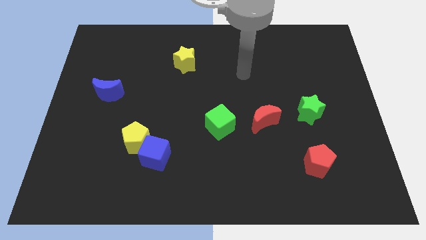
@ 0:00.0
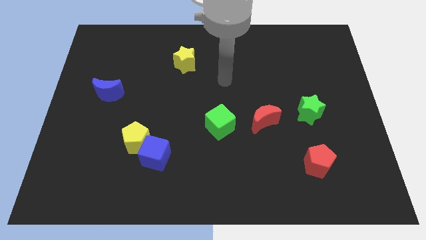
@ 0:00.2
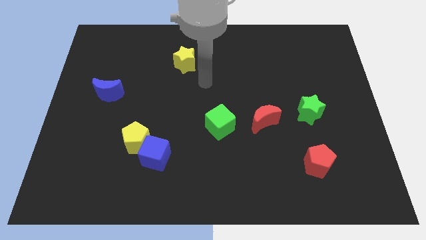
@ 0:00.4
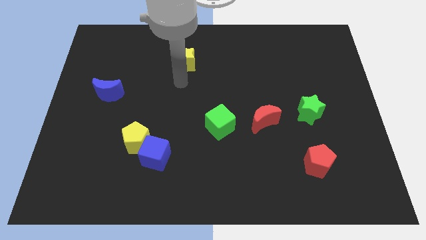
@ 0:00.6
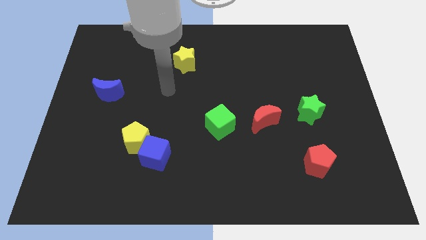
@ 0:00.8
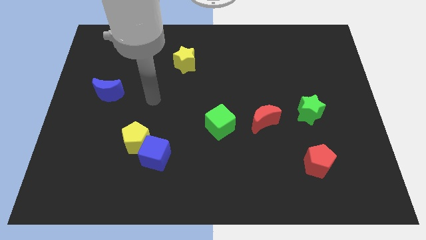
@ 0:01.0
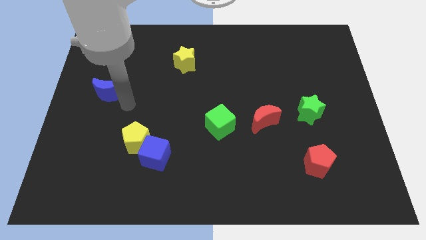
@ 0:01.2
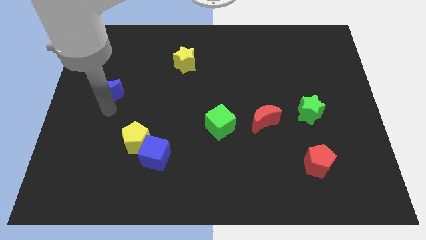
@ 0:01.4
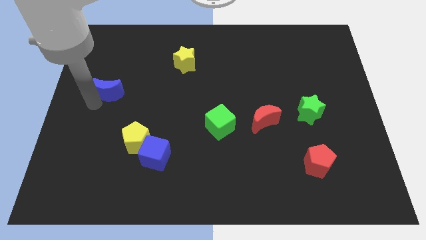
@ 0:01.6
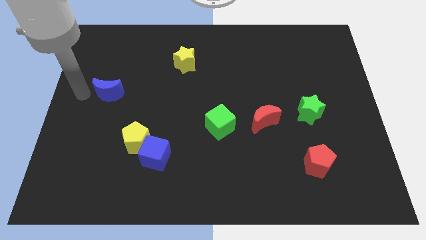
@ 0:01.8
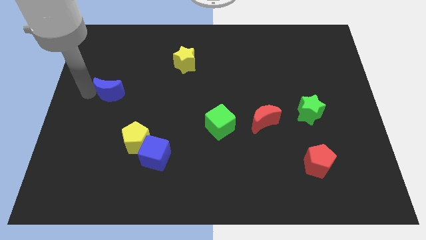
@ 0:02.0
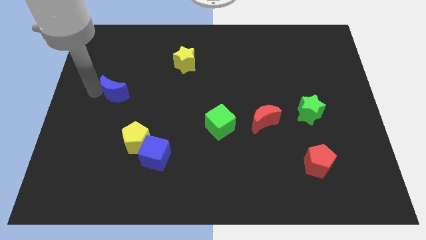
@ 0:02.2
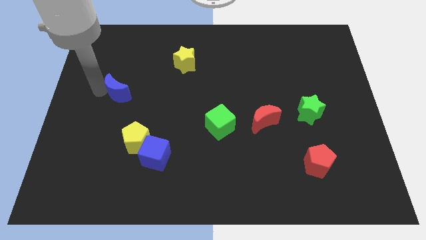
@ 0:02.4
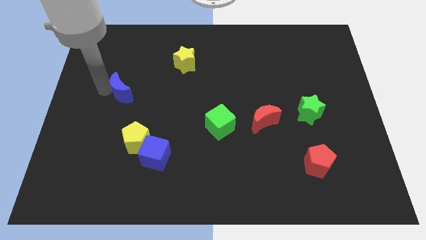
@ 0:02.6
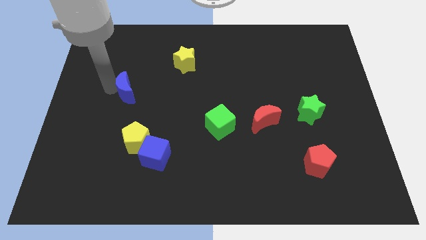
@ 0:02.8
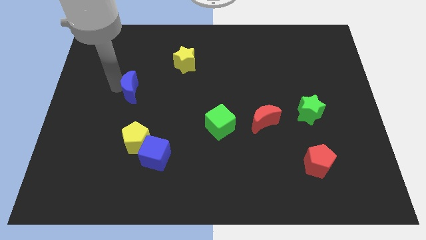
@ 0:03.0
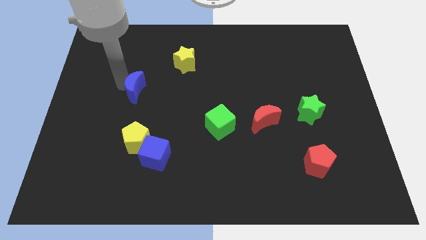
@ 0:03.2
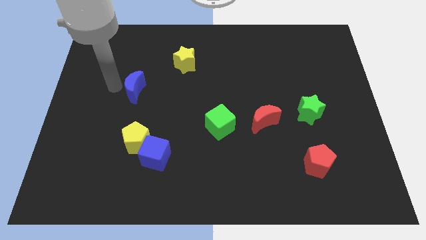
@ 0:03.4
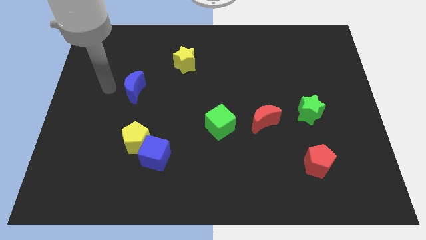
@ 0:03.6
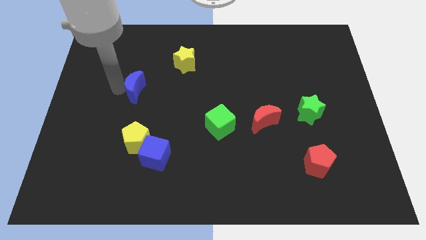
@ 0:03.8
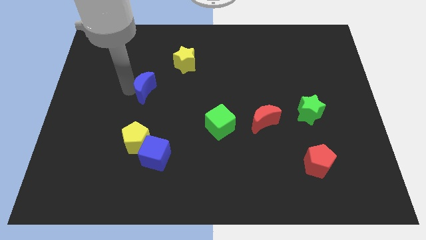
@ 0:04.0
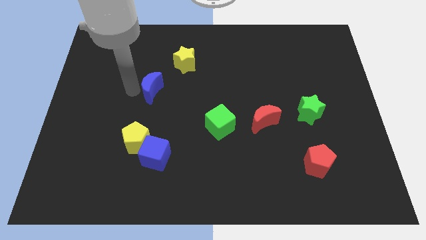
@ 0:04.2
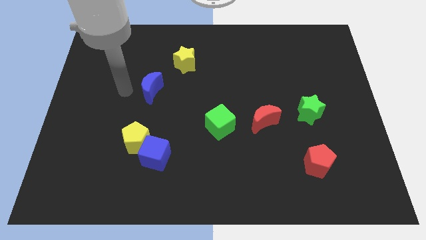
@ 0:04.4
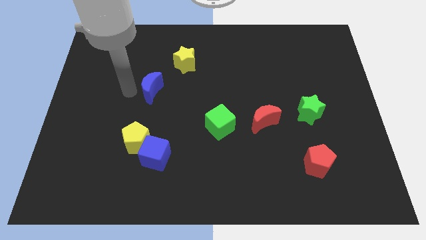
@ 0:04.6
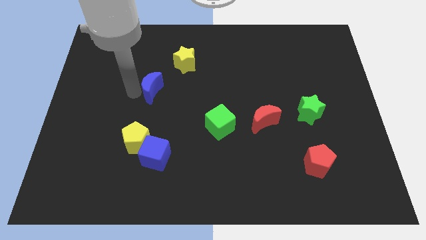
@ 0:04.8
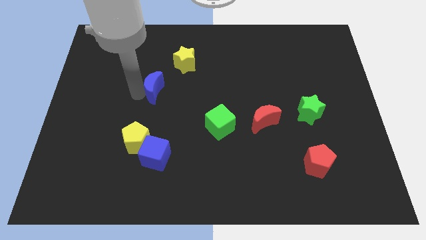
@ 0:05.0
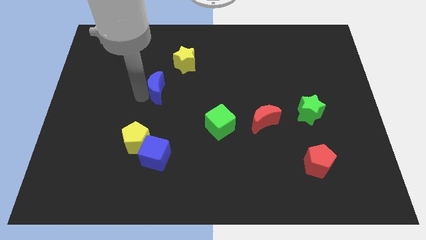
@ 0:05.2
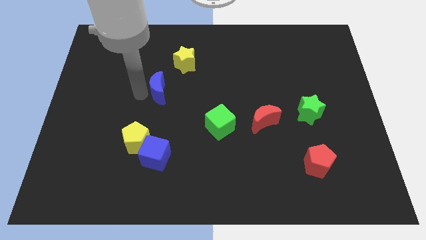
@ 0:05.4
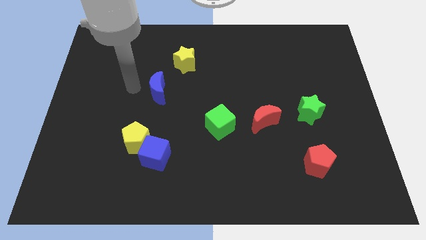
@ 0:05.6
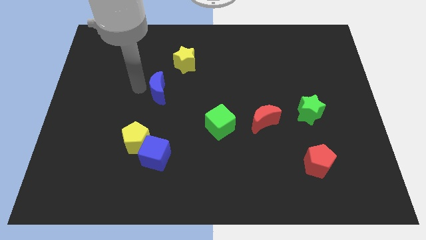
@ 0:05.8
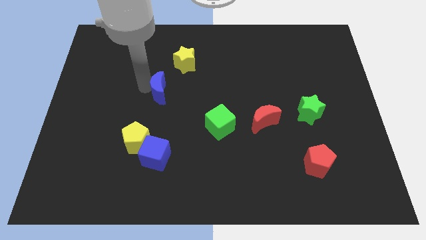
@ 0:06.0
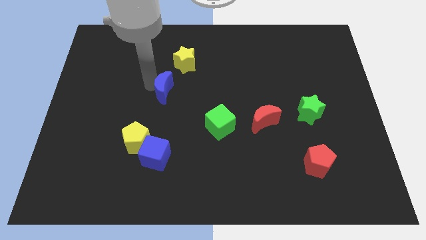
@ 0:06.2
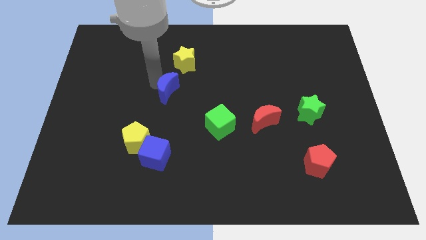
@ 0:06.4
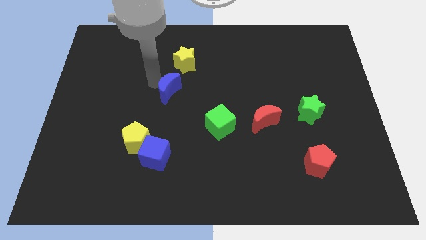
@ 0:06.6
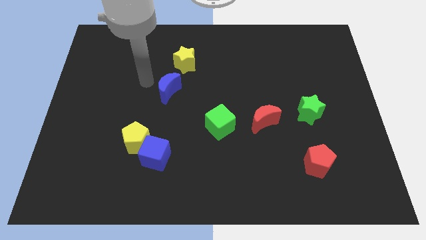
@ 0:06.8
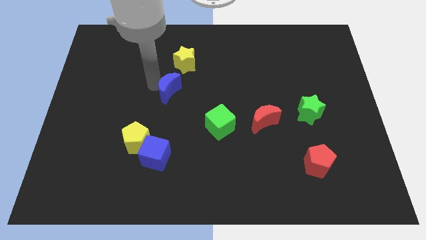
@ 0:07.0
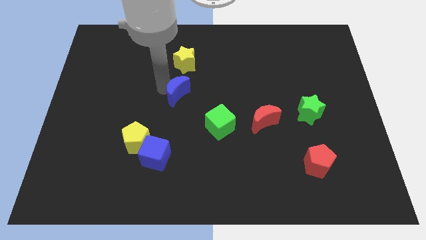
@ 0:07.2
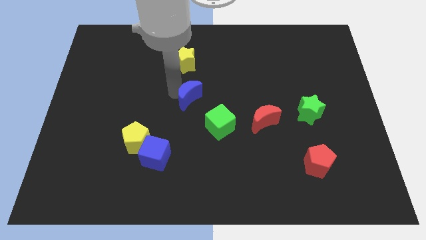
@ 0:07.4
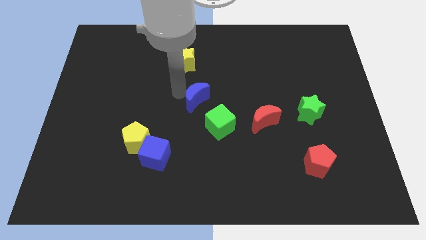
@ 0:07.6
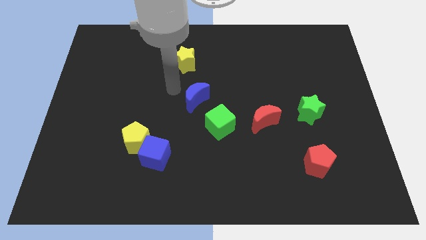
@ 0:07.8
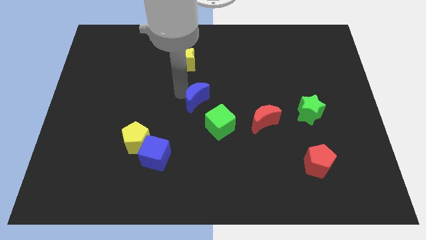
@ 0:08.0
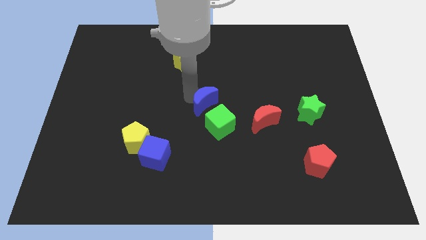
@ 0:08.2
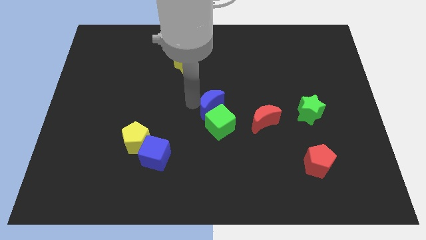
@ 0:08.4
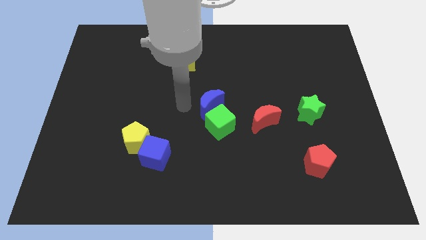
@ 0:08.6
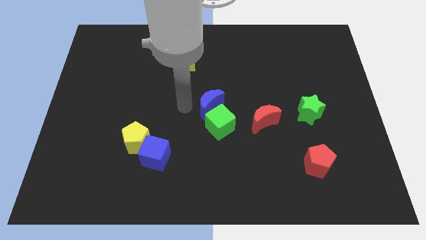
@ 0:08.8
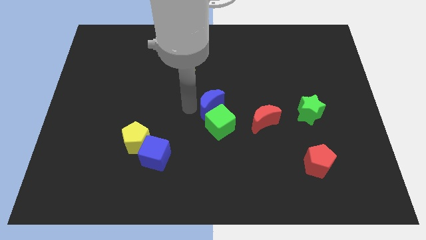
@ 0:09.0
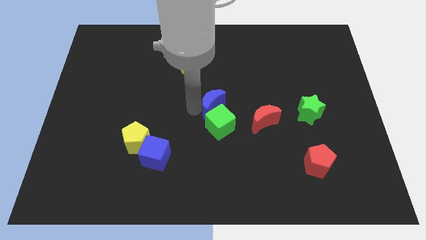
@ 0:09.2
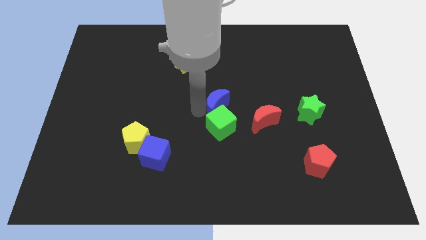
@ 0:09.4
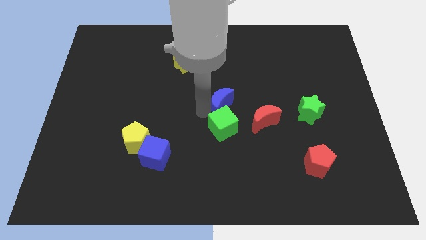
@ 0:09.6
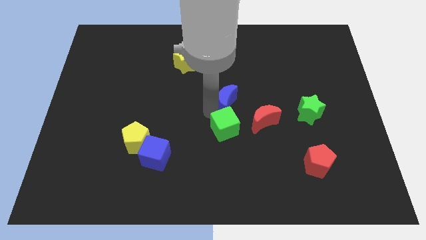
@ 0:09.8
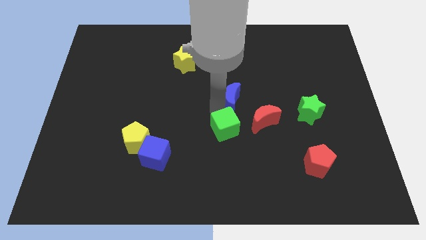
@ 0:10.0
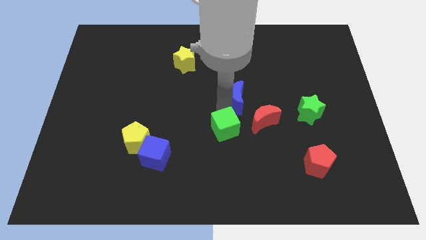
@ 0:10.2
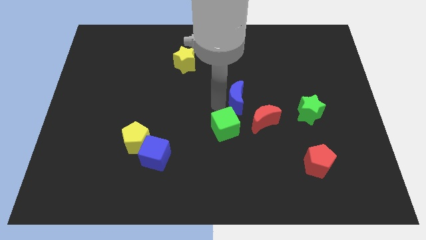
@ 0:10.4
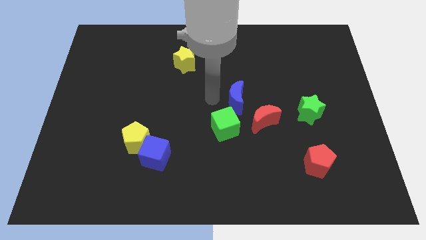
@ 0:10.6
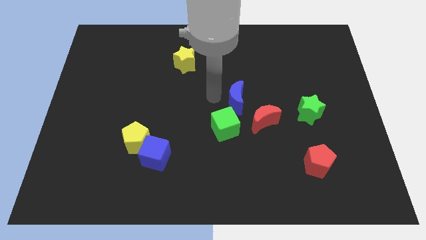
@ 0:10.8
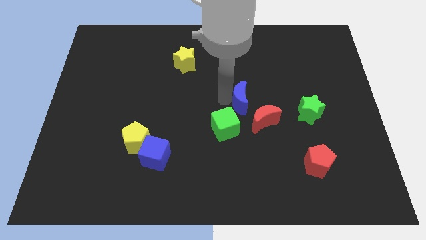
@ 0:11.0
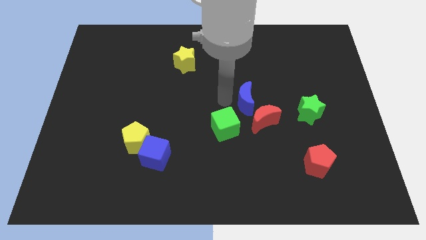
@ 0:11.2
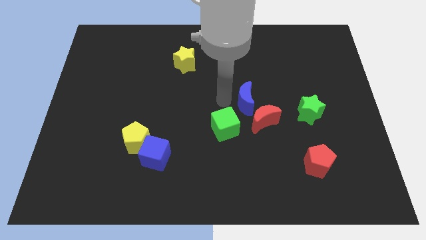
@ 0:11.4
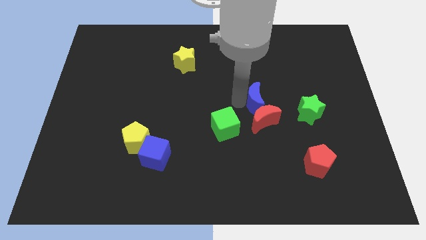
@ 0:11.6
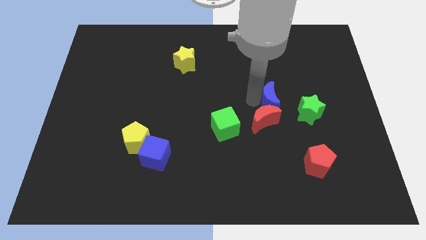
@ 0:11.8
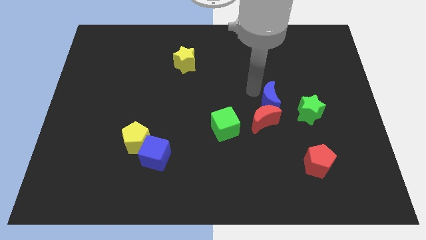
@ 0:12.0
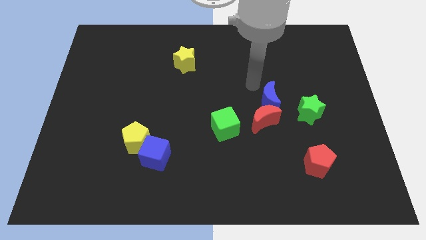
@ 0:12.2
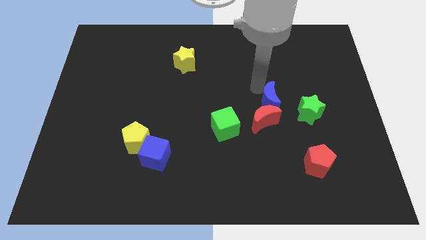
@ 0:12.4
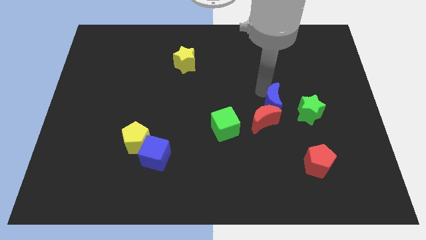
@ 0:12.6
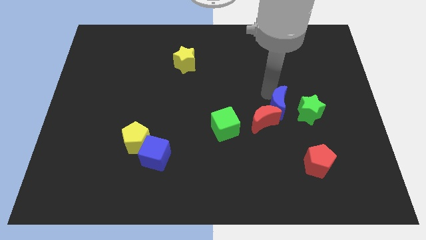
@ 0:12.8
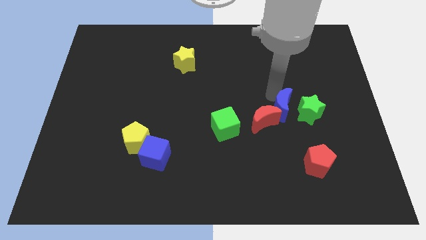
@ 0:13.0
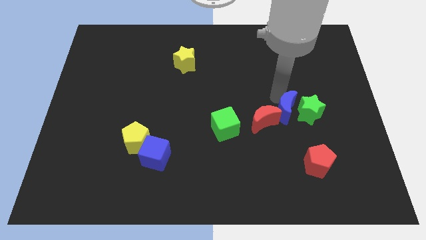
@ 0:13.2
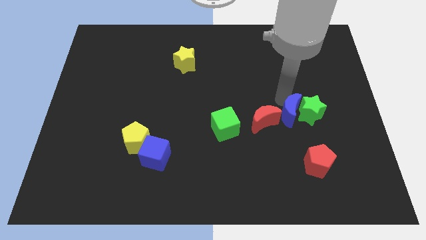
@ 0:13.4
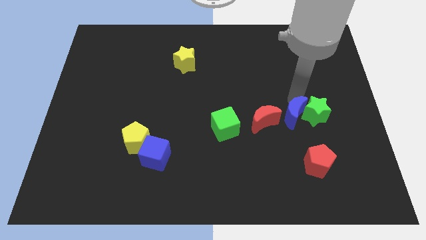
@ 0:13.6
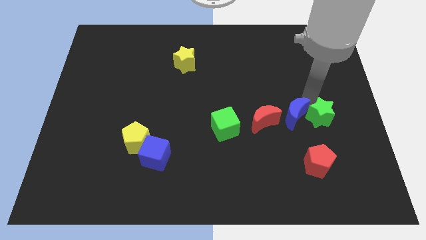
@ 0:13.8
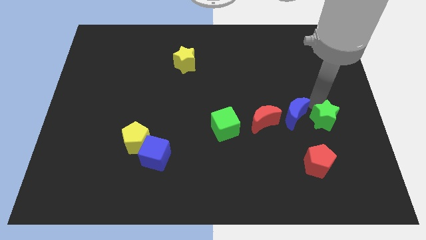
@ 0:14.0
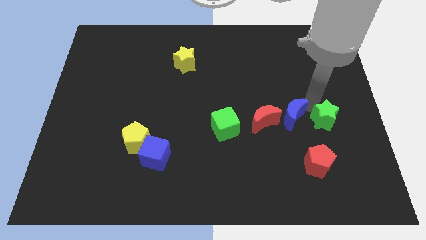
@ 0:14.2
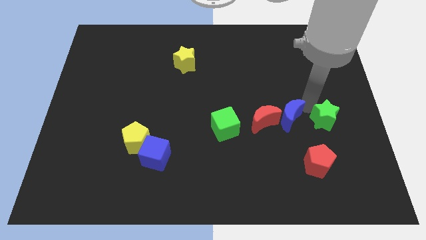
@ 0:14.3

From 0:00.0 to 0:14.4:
put the blue moon to the right of the green cube
